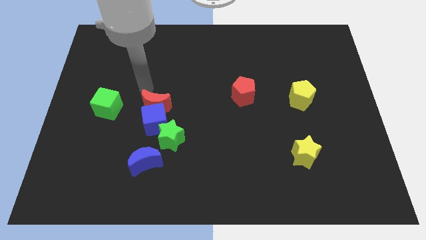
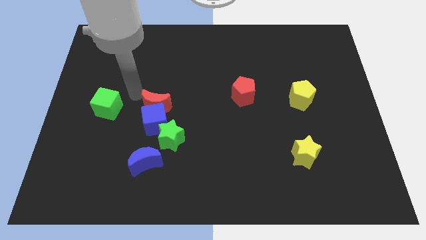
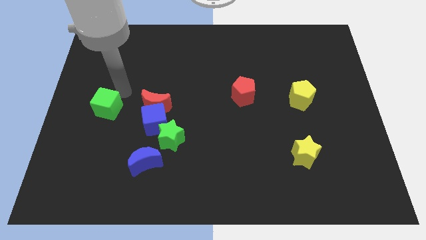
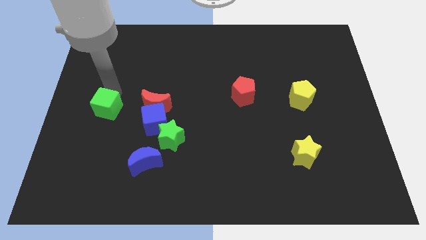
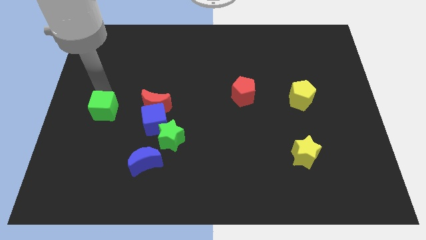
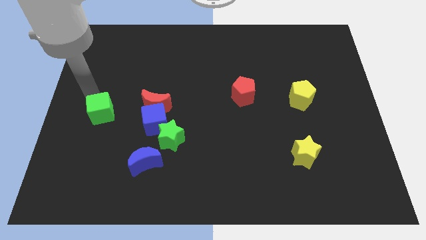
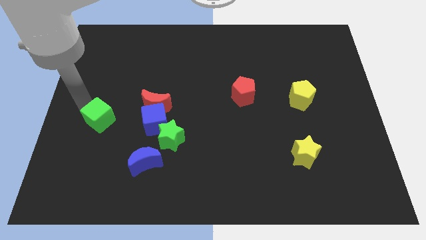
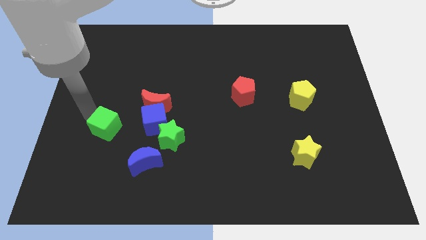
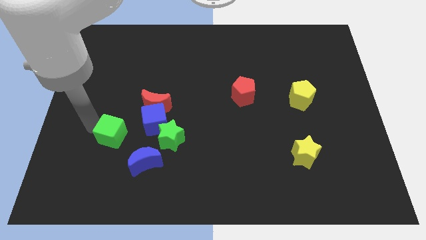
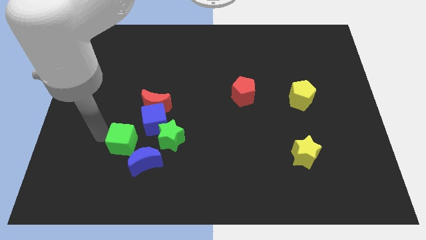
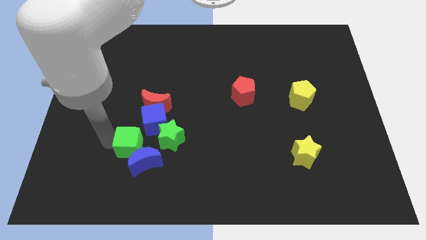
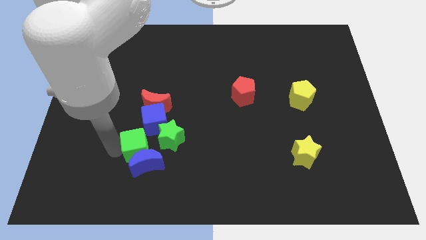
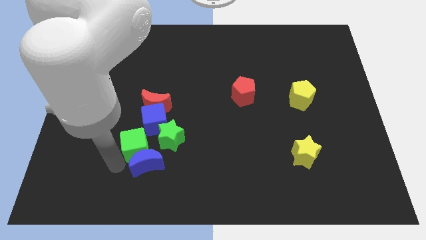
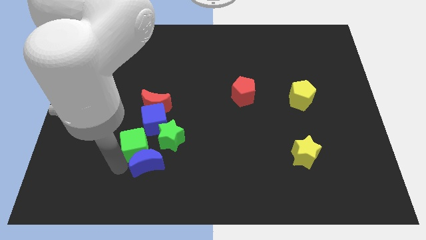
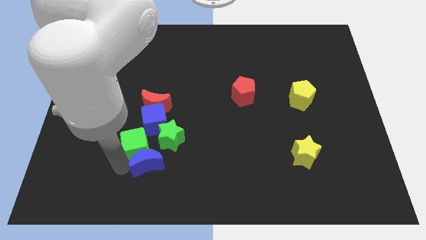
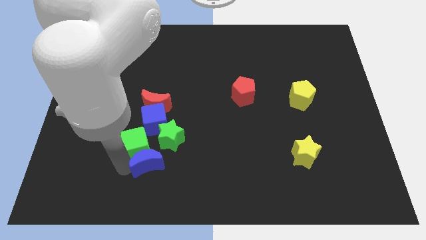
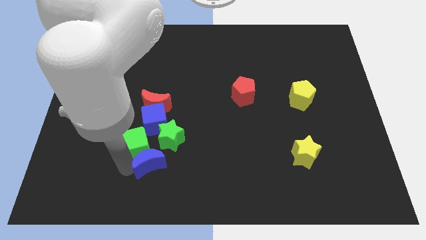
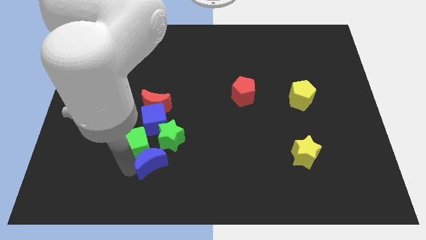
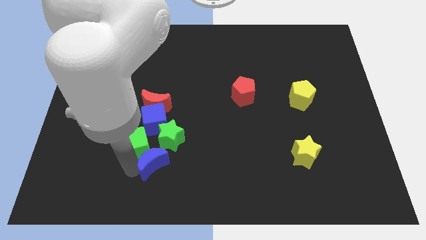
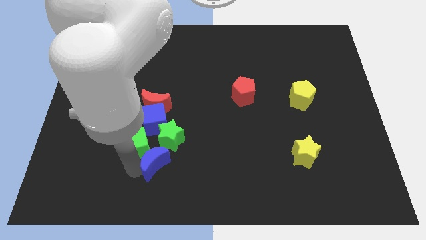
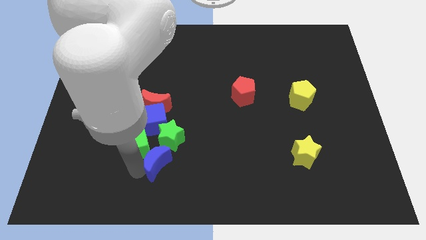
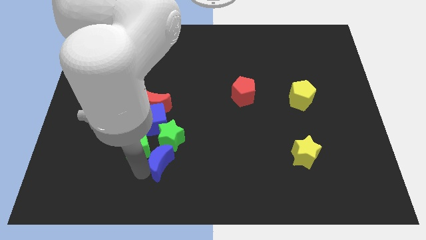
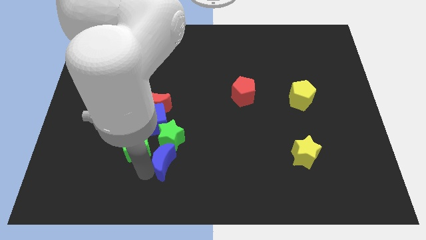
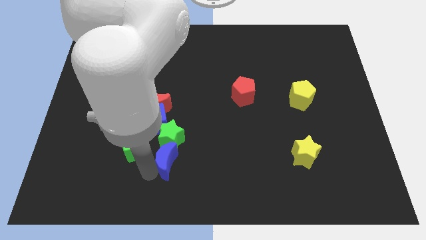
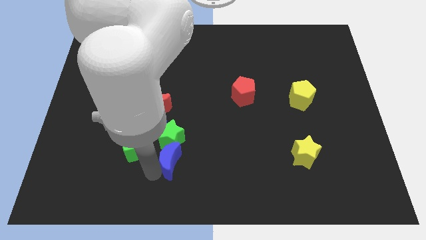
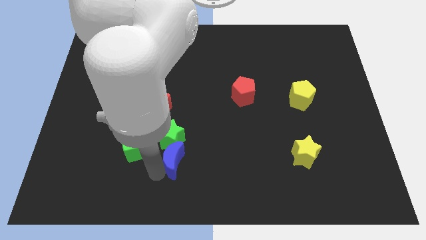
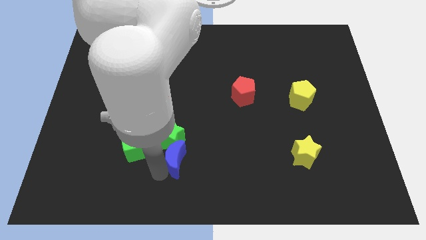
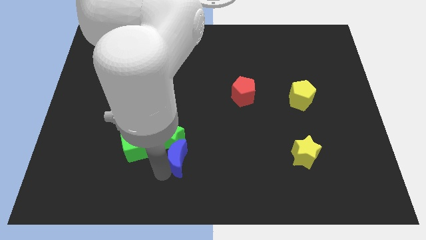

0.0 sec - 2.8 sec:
move the blue moon somewhat to the right

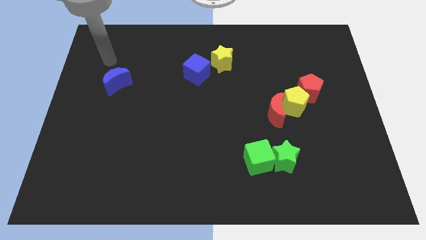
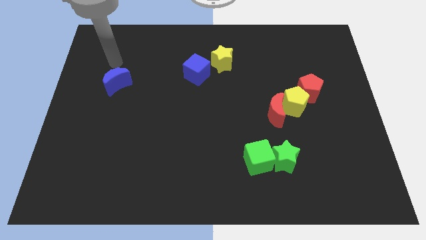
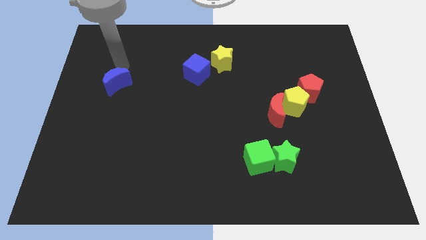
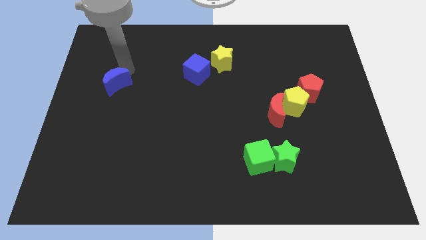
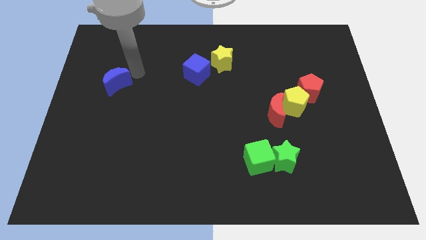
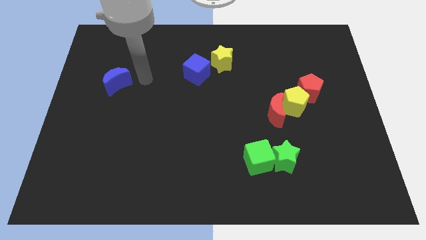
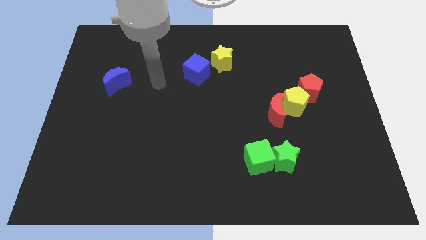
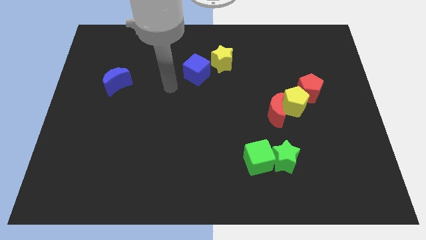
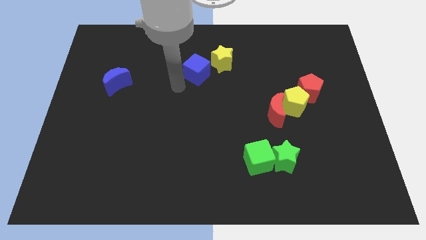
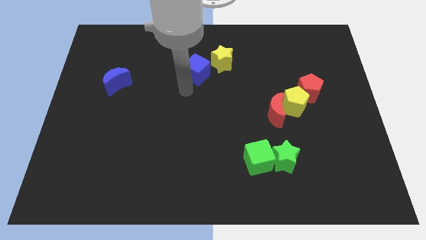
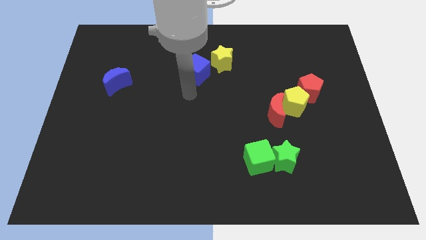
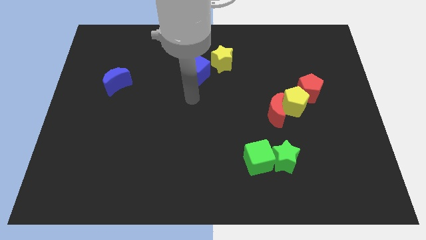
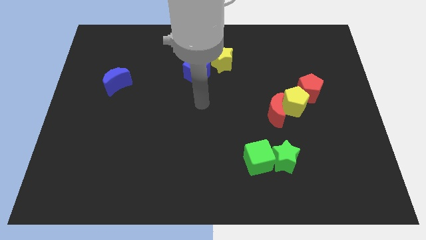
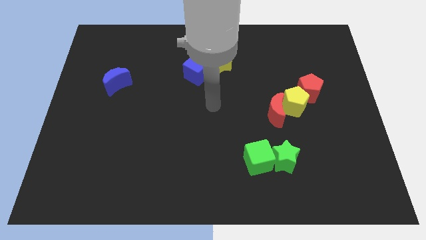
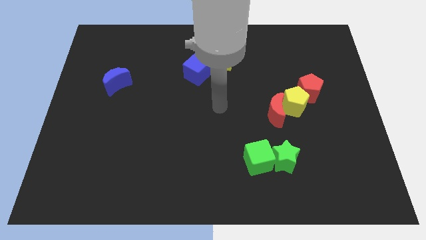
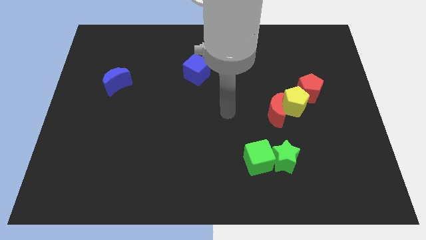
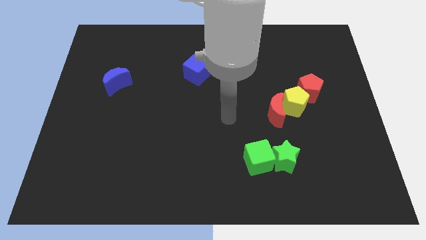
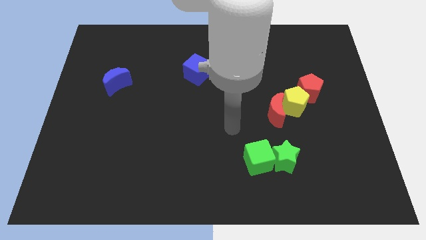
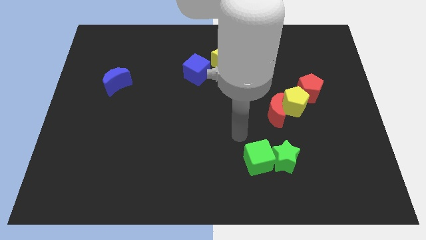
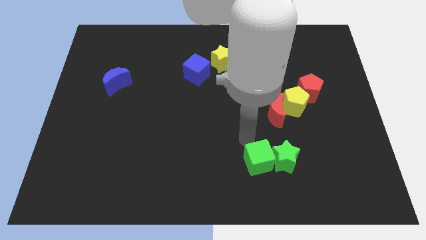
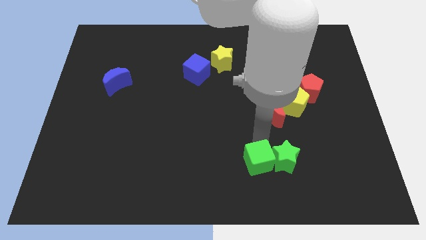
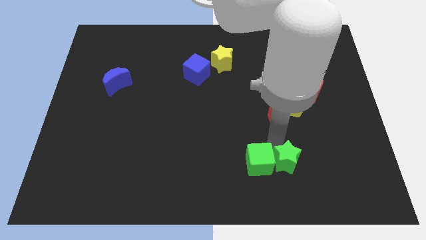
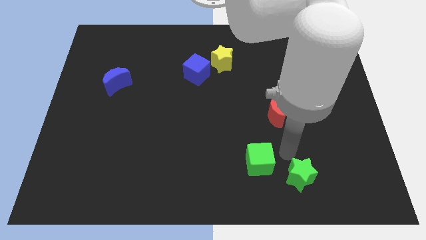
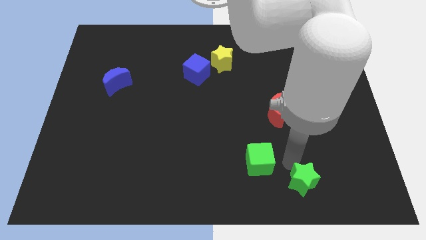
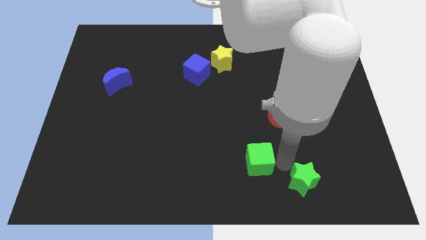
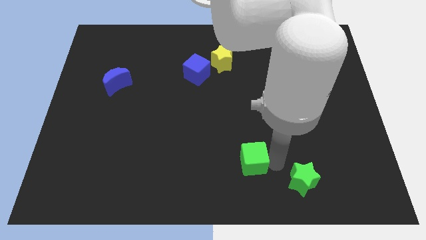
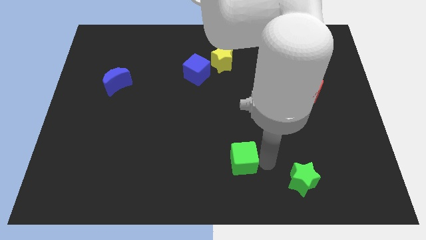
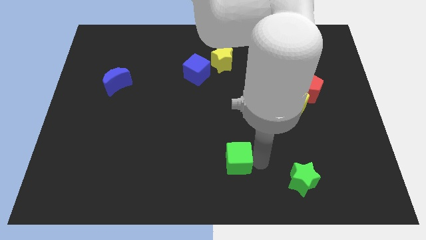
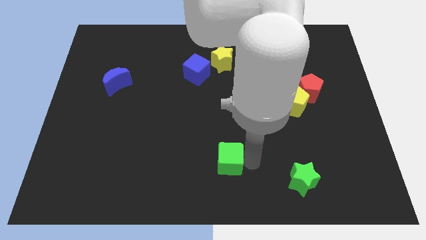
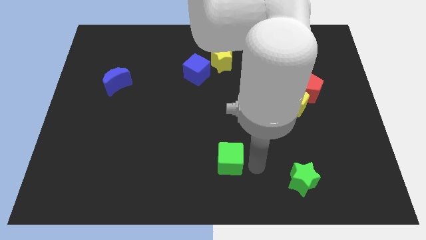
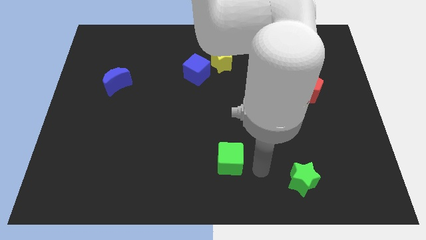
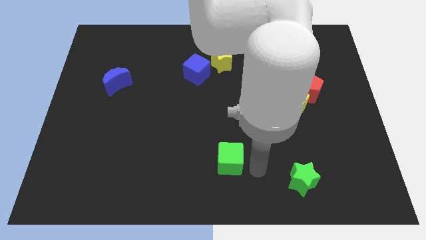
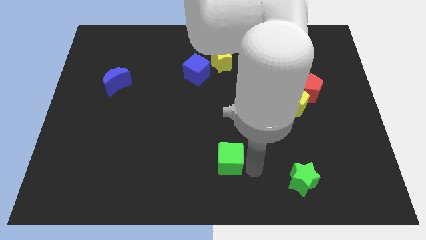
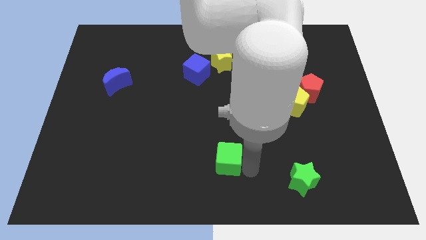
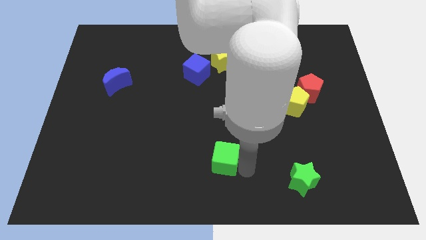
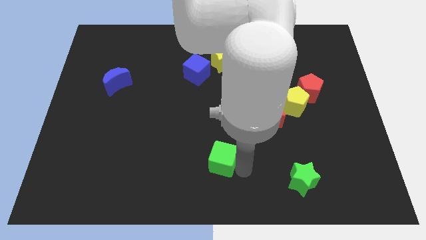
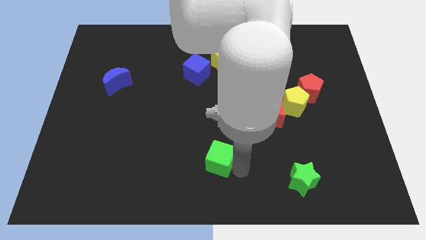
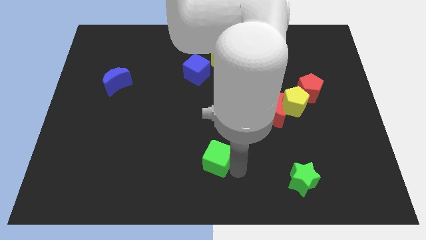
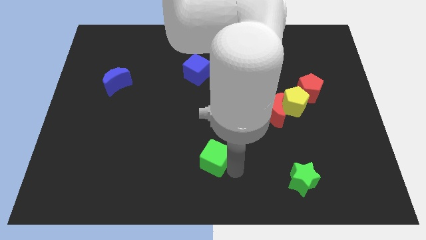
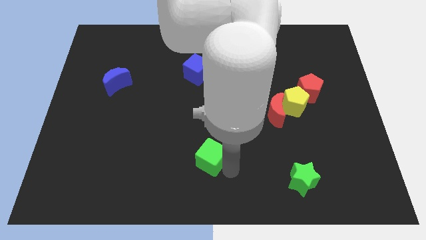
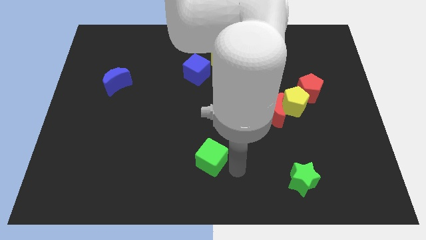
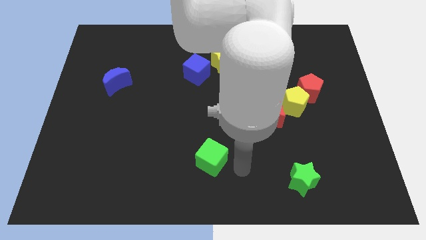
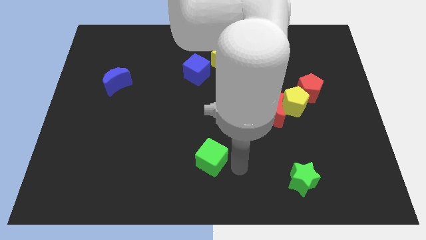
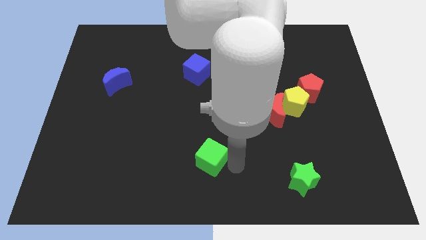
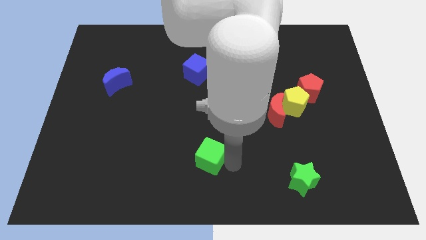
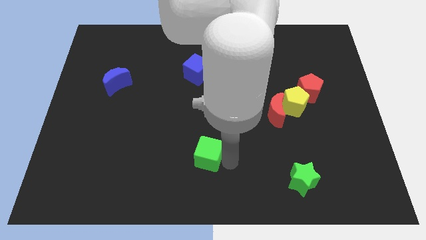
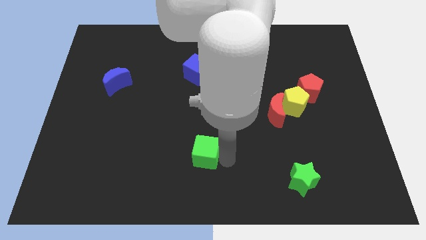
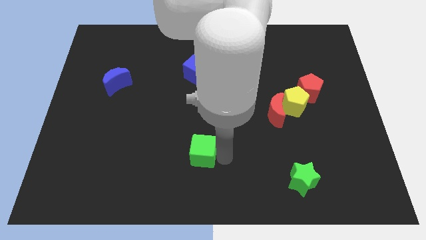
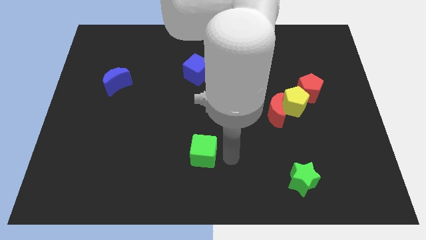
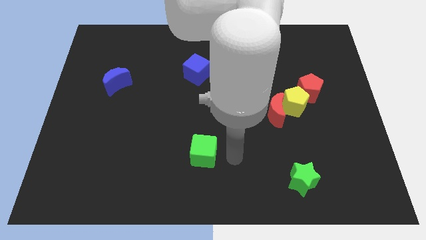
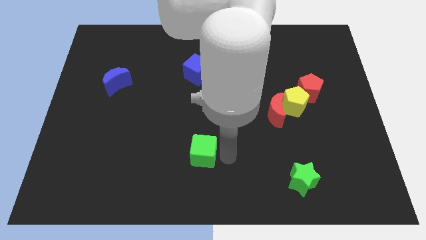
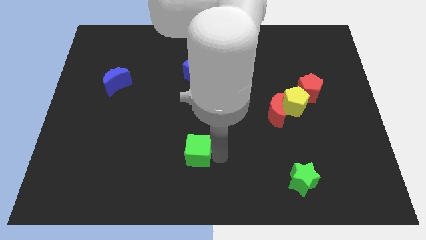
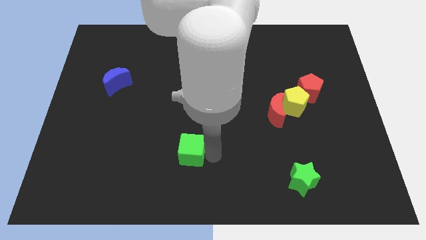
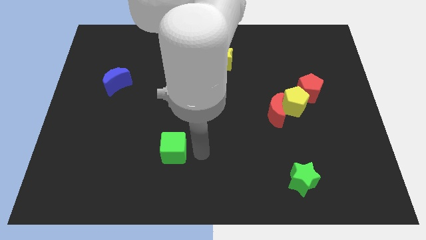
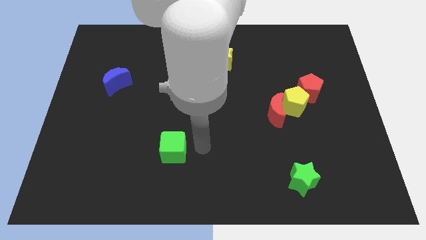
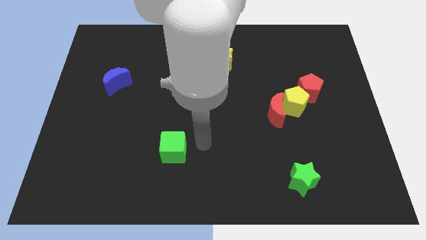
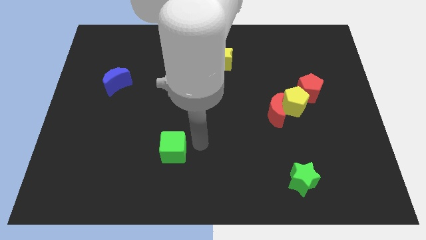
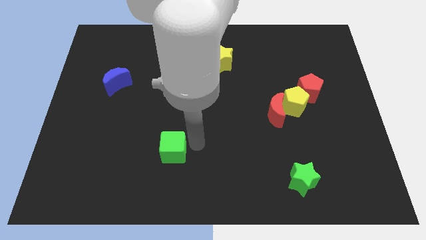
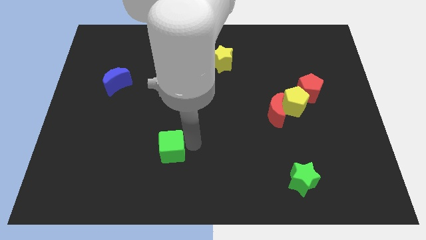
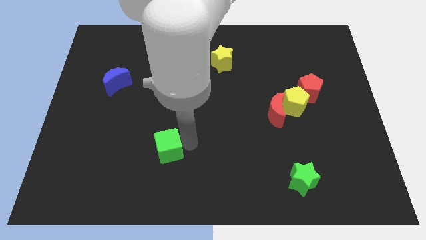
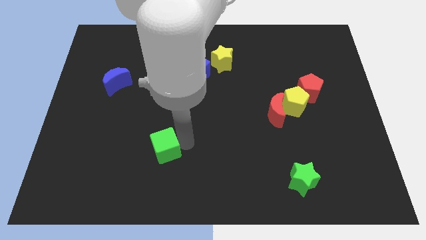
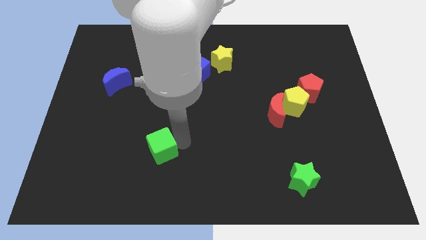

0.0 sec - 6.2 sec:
slide the green cube to the left
